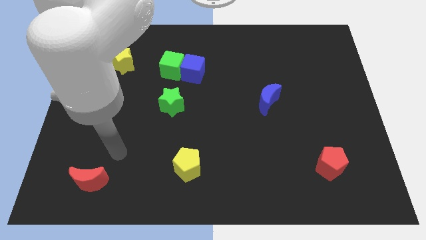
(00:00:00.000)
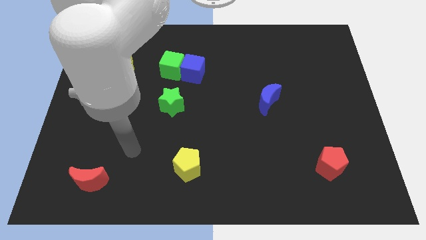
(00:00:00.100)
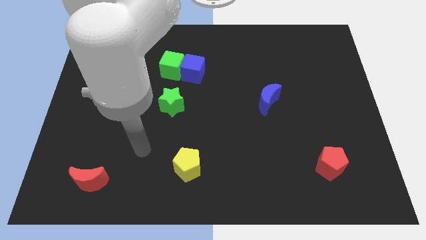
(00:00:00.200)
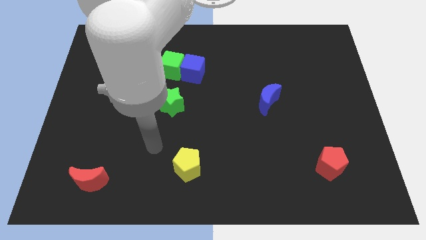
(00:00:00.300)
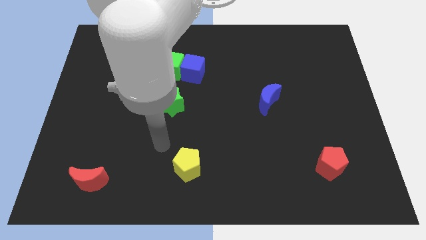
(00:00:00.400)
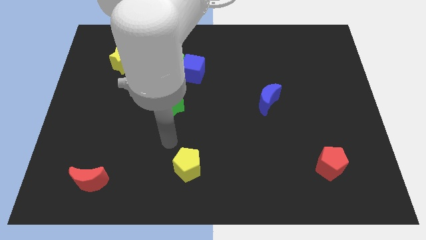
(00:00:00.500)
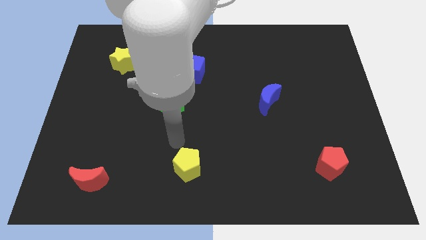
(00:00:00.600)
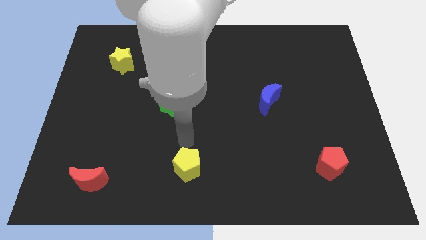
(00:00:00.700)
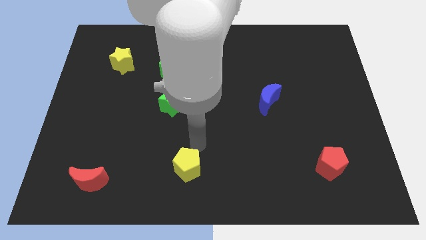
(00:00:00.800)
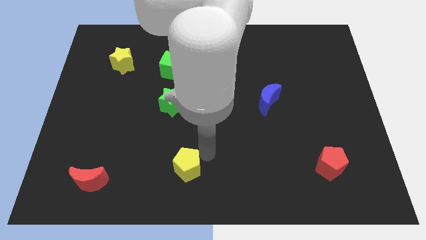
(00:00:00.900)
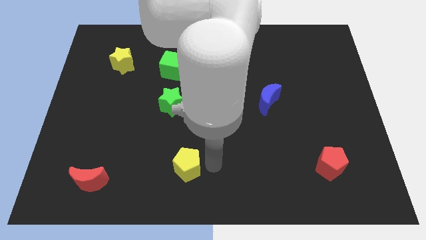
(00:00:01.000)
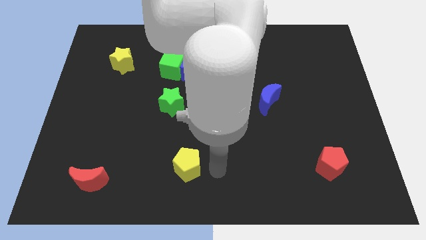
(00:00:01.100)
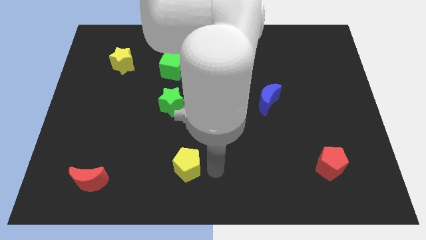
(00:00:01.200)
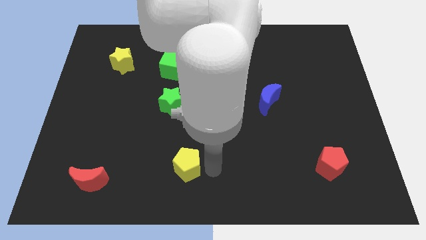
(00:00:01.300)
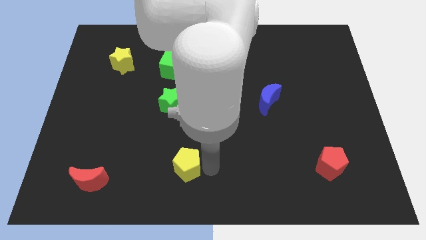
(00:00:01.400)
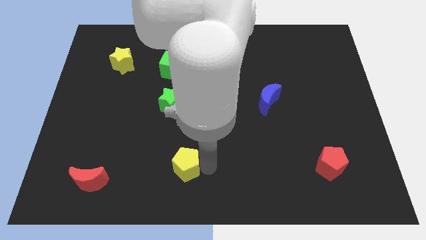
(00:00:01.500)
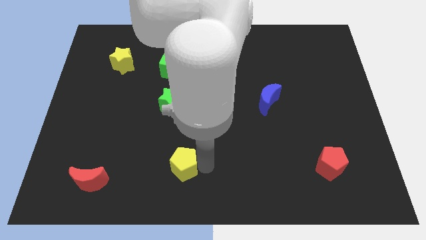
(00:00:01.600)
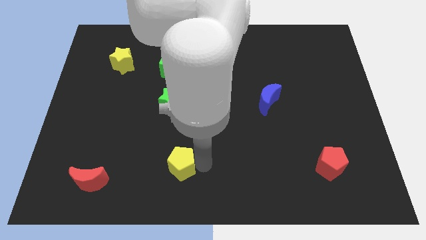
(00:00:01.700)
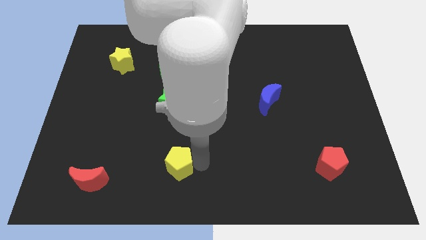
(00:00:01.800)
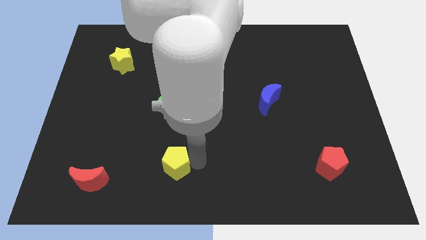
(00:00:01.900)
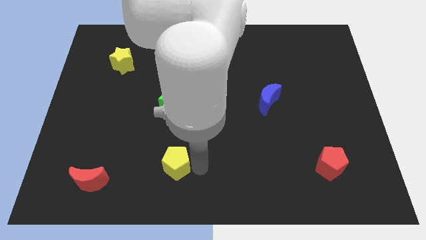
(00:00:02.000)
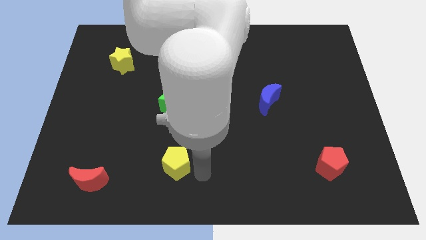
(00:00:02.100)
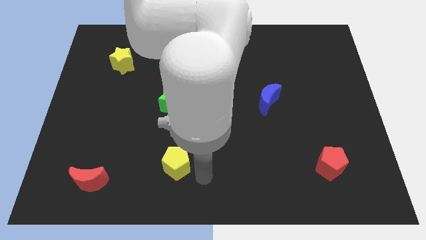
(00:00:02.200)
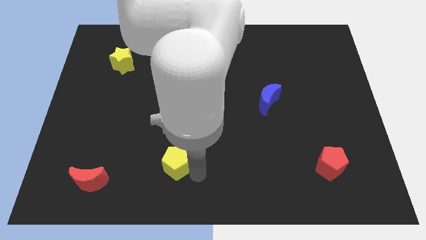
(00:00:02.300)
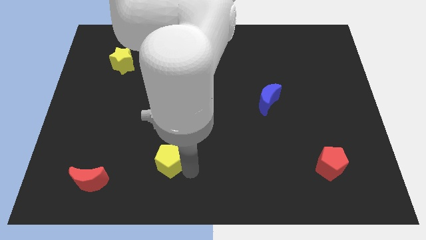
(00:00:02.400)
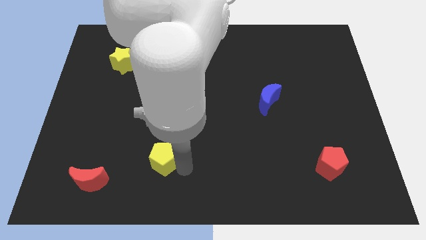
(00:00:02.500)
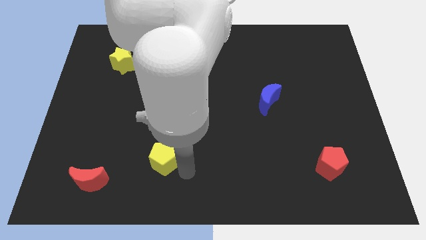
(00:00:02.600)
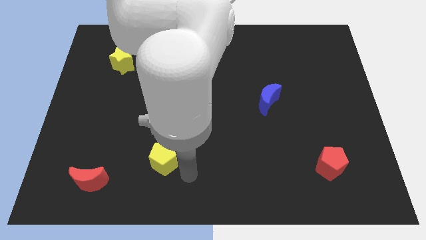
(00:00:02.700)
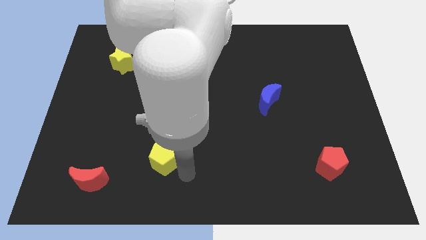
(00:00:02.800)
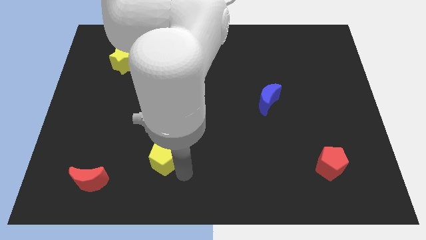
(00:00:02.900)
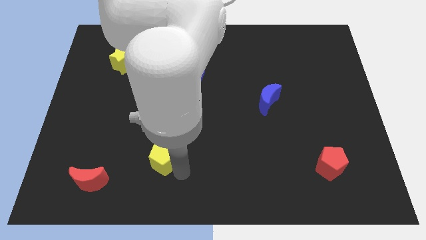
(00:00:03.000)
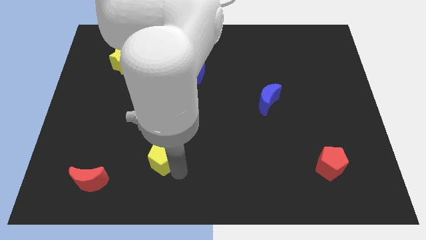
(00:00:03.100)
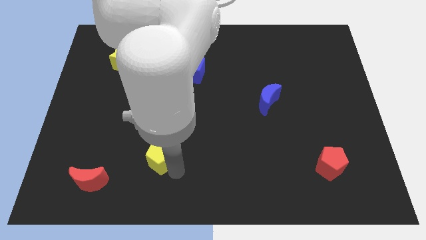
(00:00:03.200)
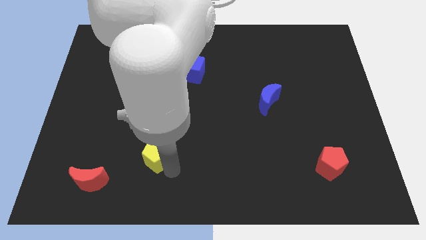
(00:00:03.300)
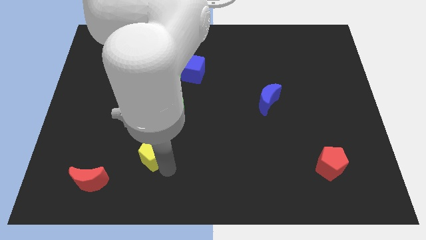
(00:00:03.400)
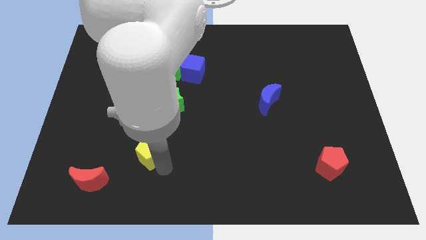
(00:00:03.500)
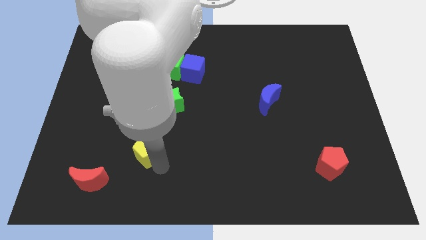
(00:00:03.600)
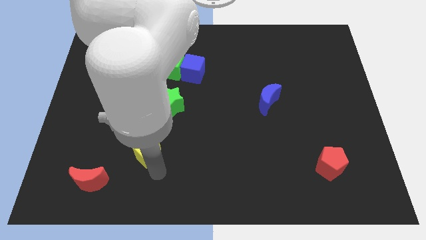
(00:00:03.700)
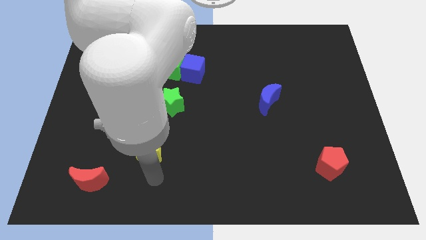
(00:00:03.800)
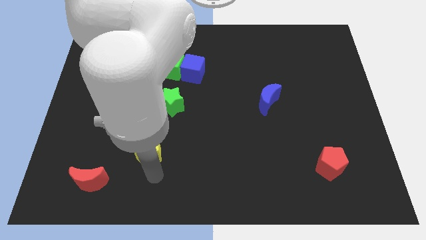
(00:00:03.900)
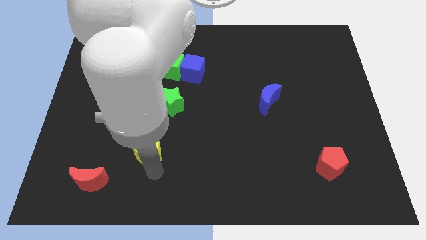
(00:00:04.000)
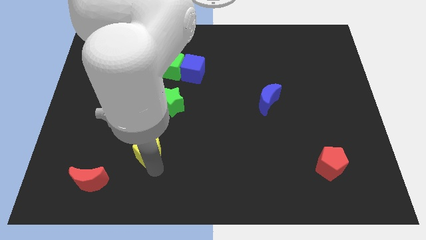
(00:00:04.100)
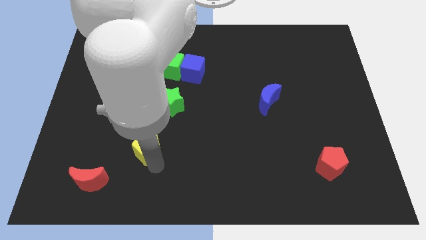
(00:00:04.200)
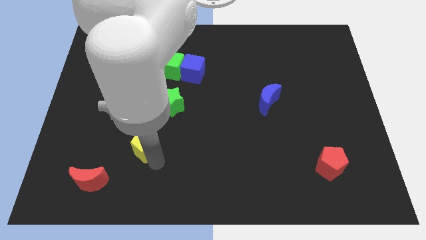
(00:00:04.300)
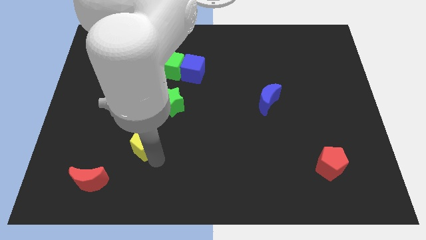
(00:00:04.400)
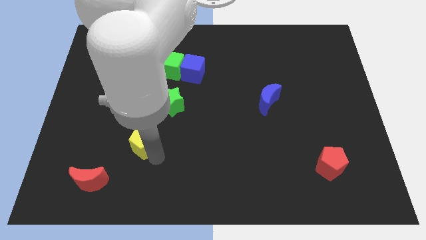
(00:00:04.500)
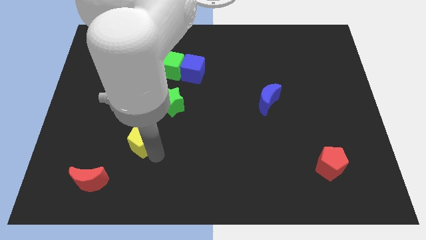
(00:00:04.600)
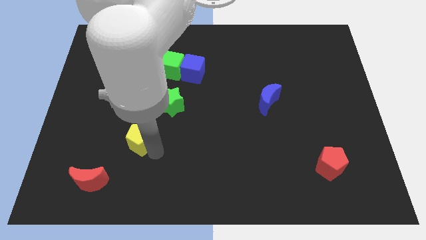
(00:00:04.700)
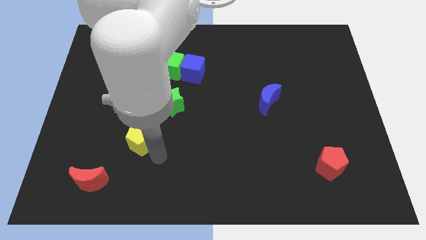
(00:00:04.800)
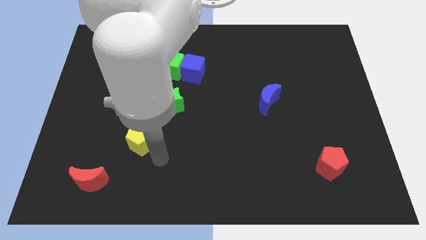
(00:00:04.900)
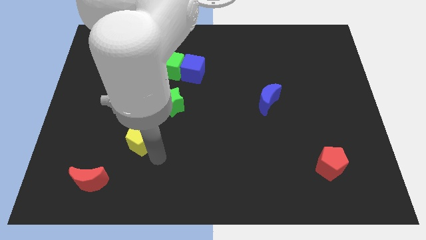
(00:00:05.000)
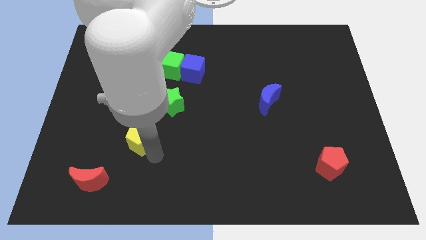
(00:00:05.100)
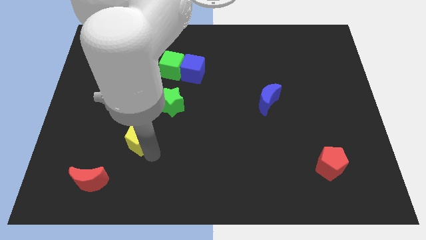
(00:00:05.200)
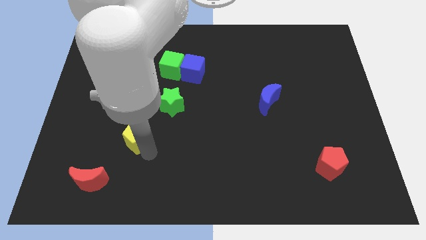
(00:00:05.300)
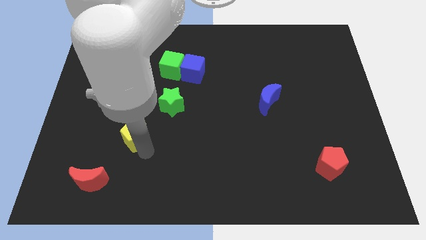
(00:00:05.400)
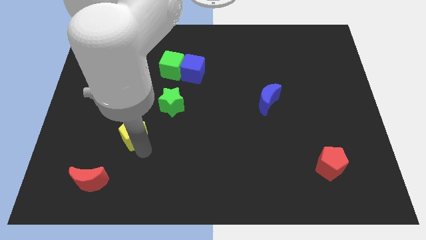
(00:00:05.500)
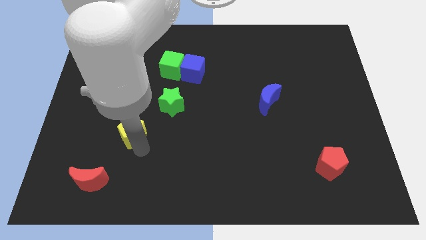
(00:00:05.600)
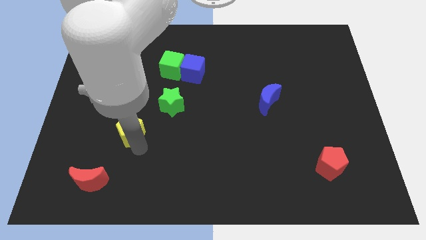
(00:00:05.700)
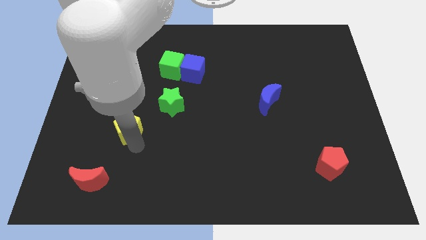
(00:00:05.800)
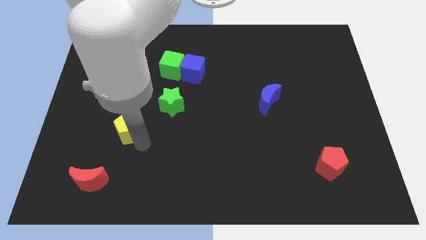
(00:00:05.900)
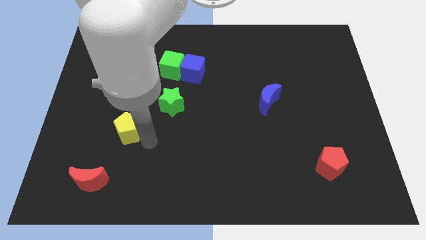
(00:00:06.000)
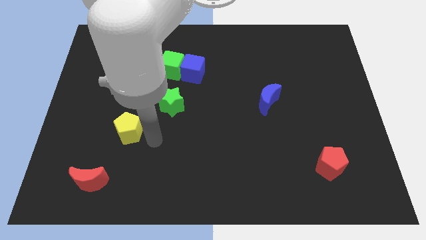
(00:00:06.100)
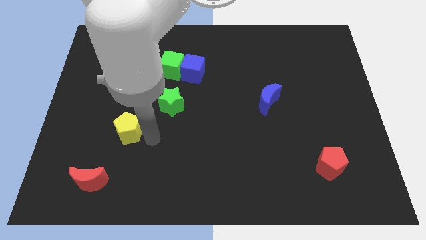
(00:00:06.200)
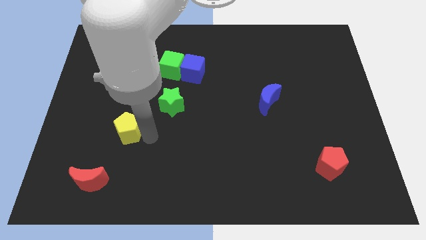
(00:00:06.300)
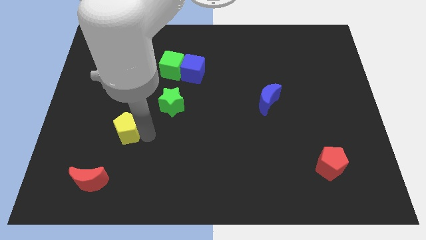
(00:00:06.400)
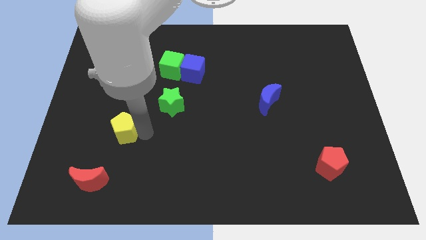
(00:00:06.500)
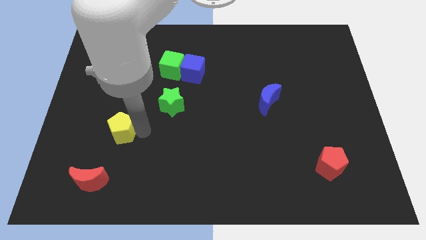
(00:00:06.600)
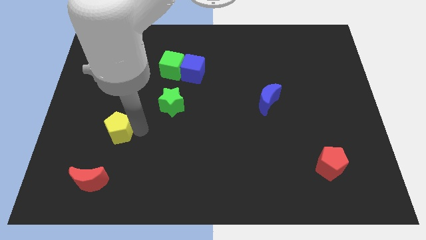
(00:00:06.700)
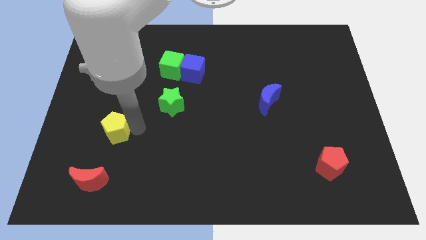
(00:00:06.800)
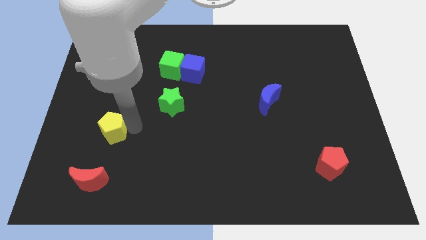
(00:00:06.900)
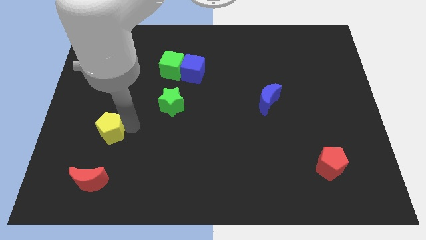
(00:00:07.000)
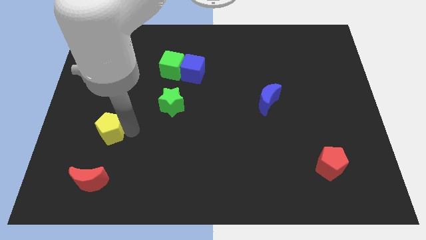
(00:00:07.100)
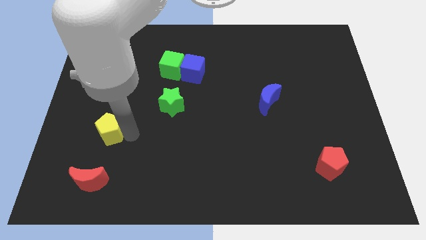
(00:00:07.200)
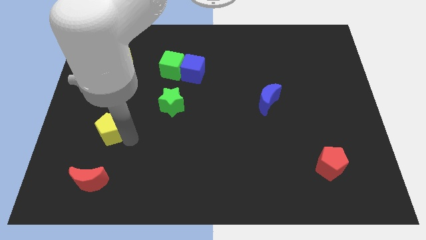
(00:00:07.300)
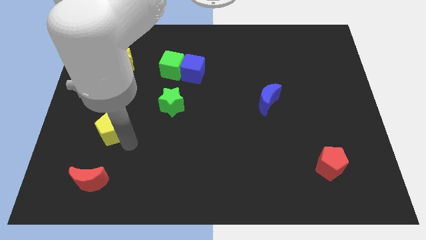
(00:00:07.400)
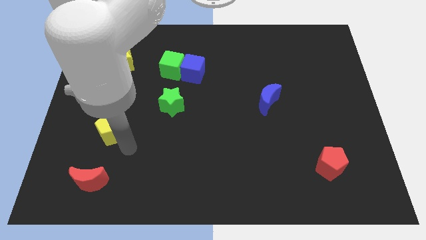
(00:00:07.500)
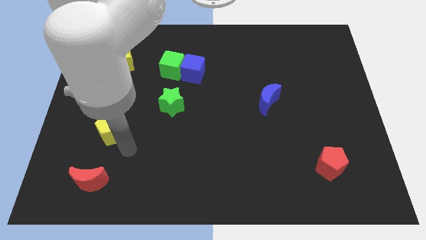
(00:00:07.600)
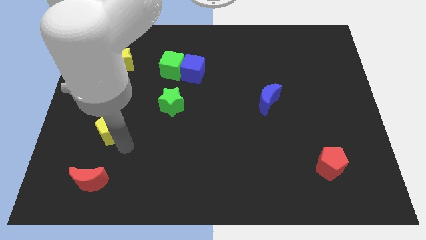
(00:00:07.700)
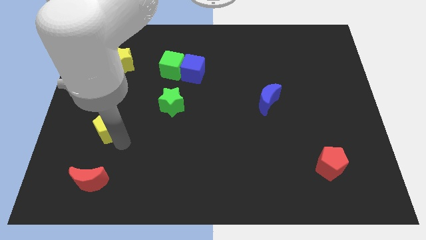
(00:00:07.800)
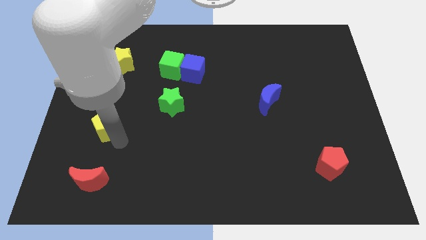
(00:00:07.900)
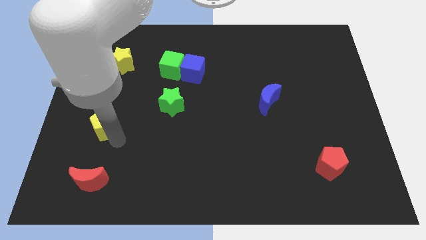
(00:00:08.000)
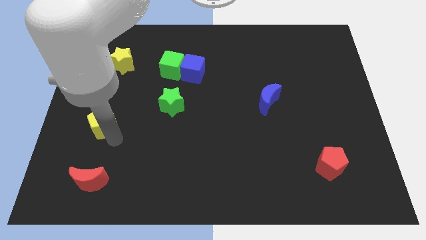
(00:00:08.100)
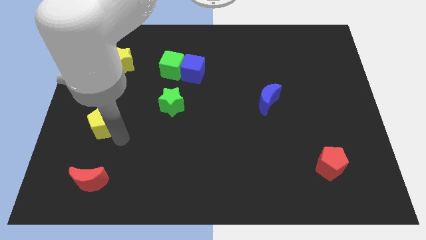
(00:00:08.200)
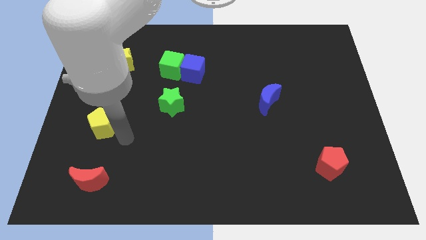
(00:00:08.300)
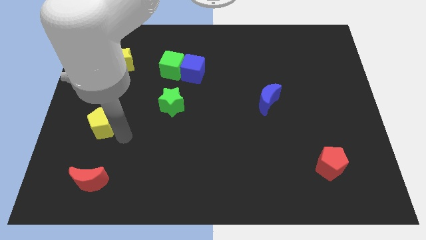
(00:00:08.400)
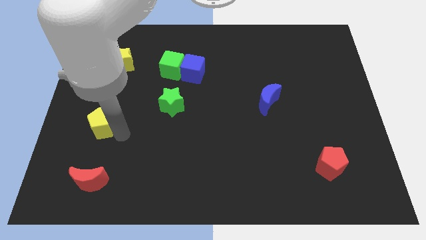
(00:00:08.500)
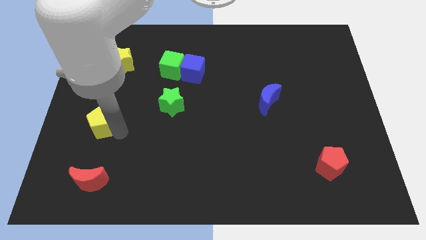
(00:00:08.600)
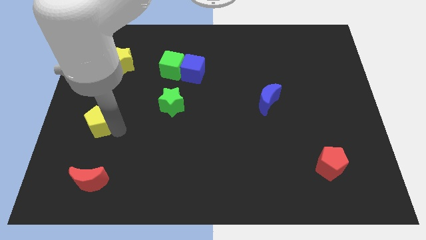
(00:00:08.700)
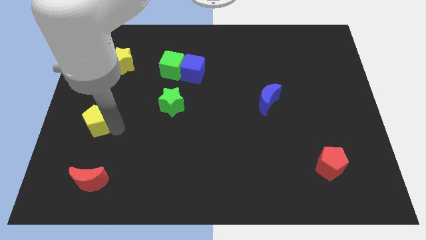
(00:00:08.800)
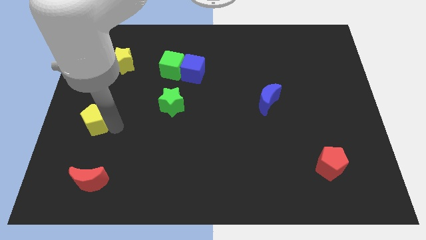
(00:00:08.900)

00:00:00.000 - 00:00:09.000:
move the yellow pentagon to the left side of the board
